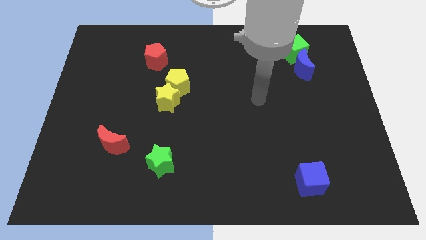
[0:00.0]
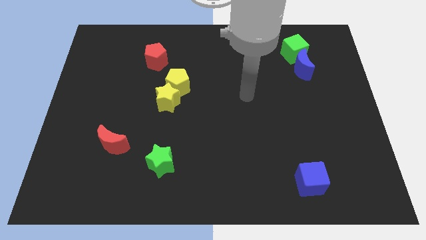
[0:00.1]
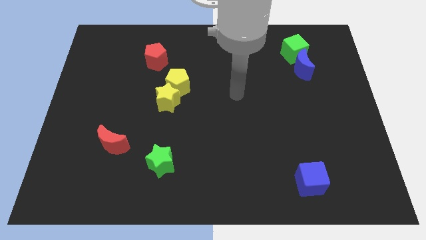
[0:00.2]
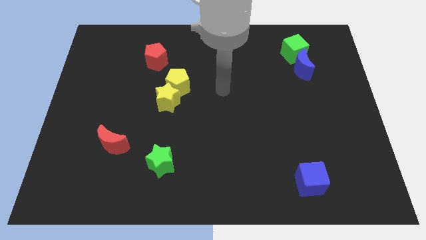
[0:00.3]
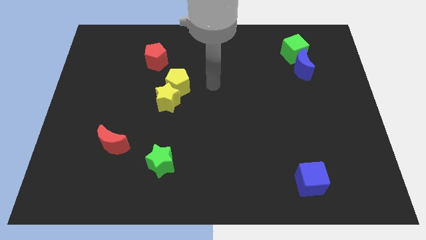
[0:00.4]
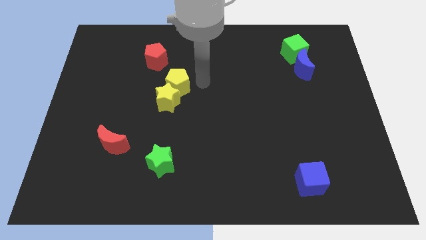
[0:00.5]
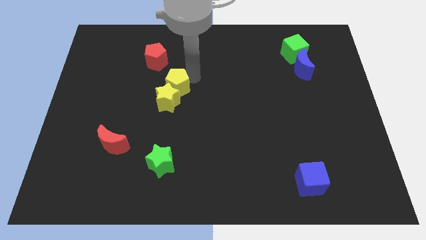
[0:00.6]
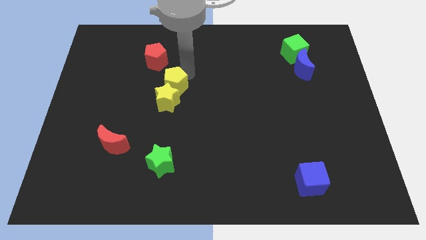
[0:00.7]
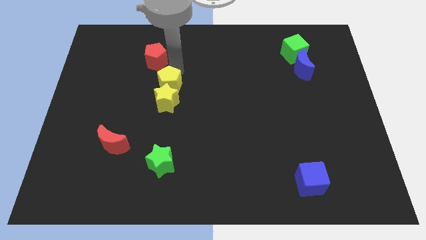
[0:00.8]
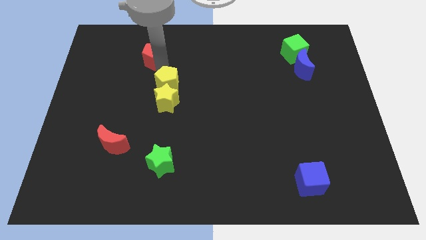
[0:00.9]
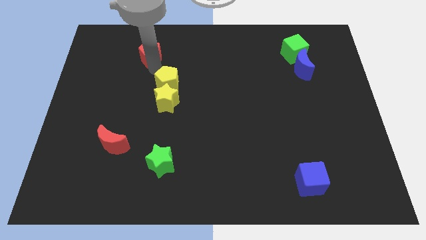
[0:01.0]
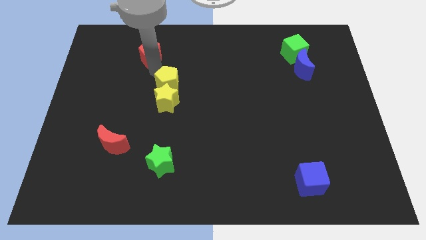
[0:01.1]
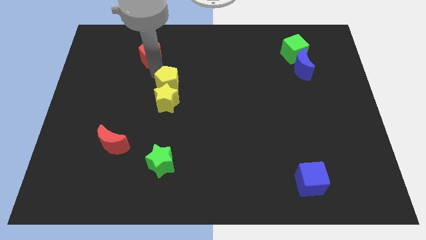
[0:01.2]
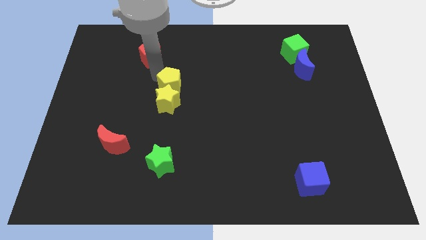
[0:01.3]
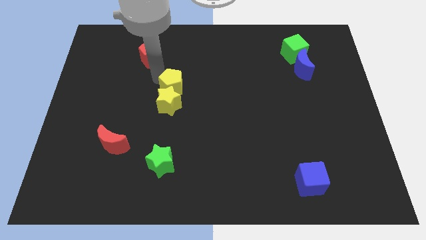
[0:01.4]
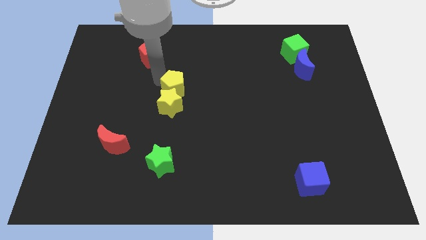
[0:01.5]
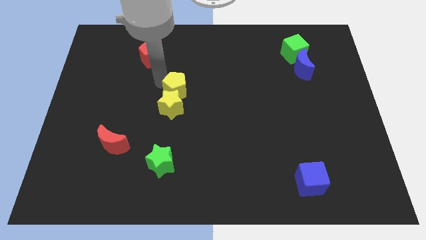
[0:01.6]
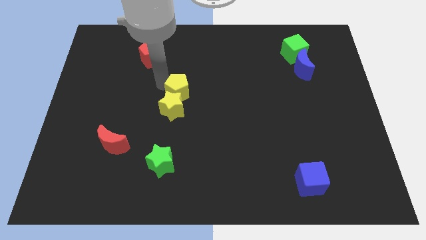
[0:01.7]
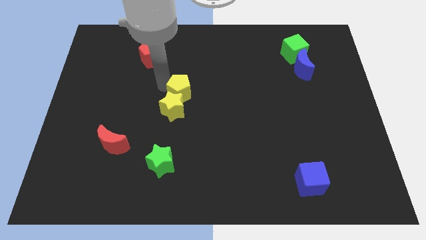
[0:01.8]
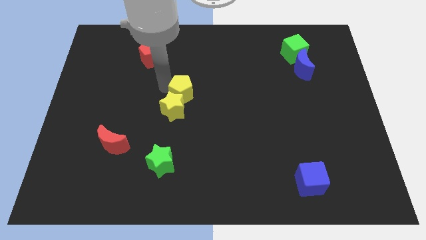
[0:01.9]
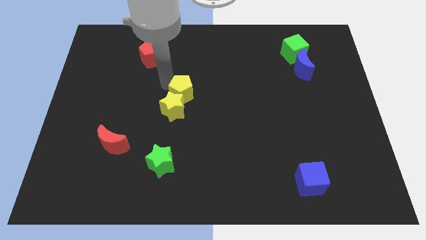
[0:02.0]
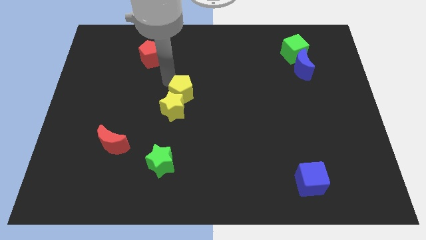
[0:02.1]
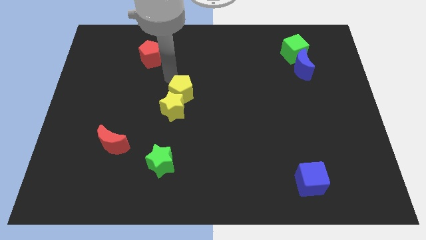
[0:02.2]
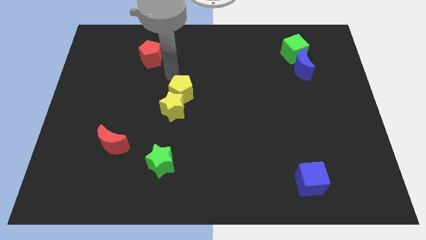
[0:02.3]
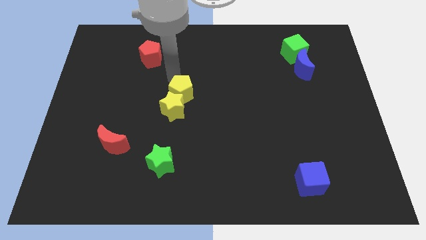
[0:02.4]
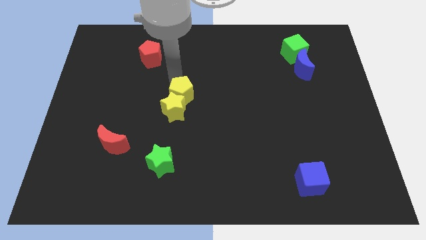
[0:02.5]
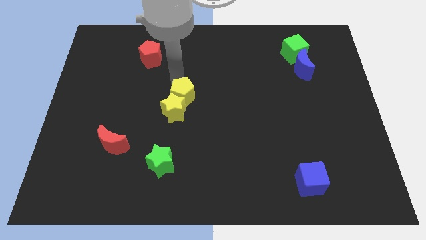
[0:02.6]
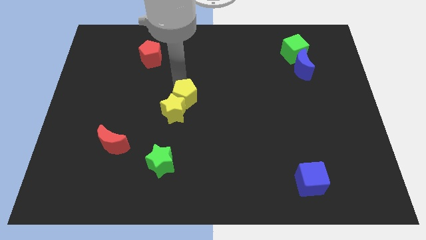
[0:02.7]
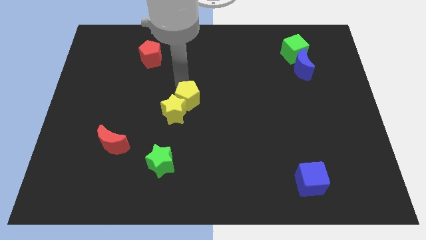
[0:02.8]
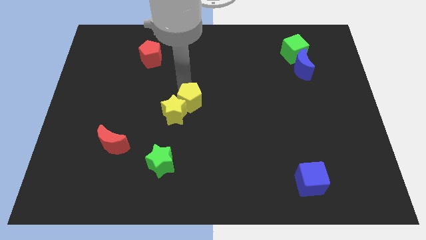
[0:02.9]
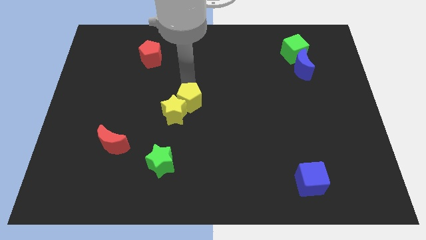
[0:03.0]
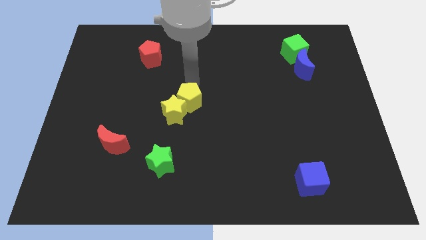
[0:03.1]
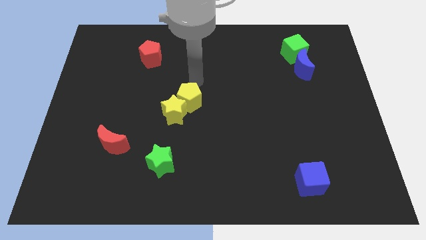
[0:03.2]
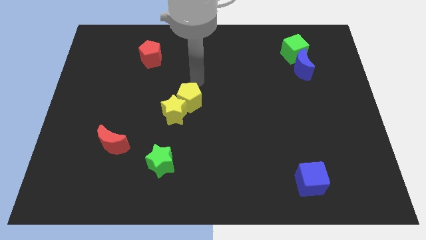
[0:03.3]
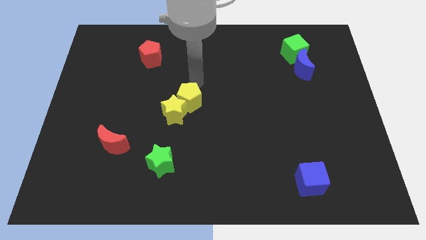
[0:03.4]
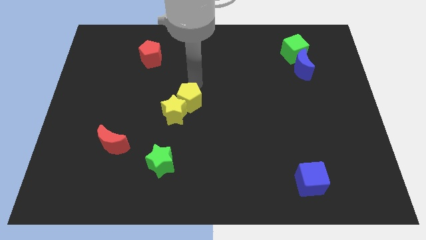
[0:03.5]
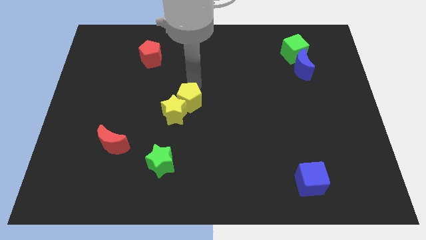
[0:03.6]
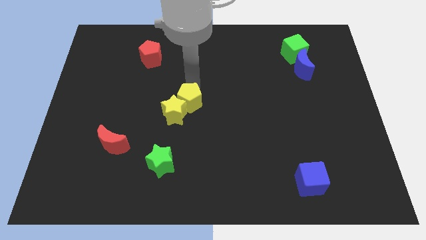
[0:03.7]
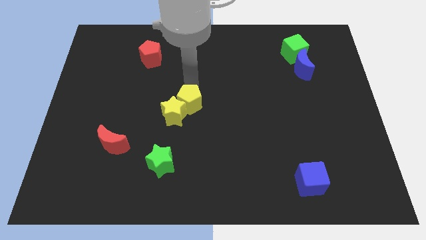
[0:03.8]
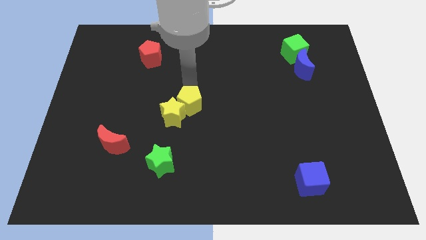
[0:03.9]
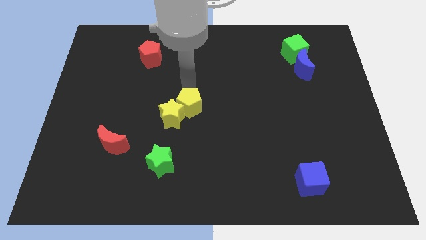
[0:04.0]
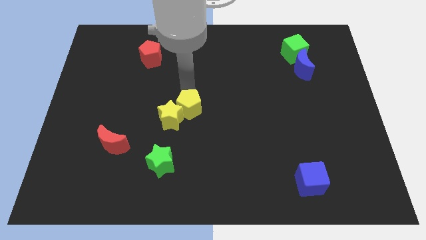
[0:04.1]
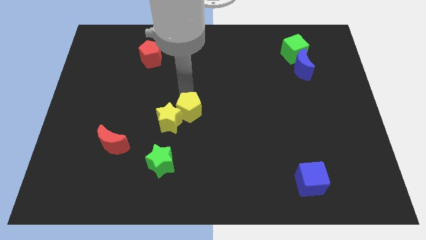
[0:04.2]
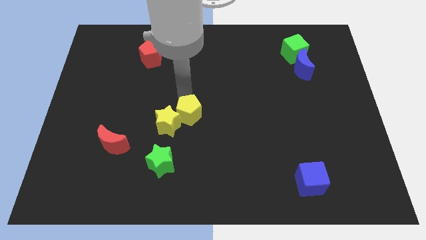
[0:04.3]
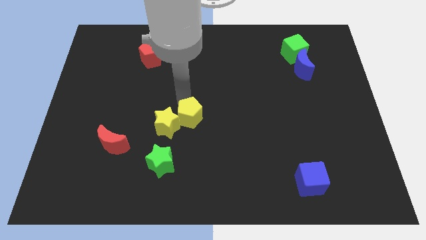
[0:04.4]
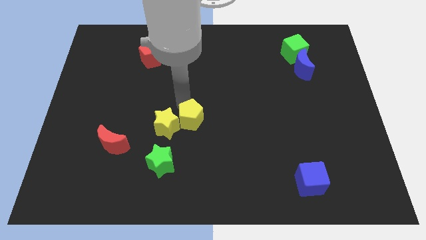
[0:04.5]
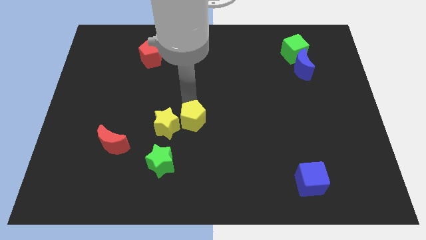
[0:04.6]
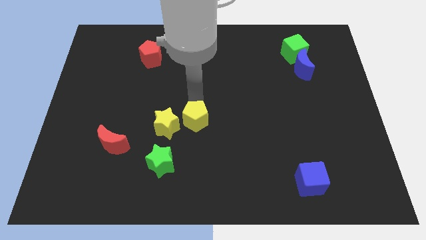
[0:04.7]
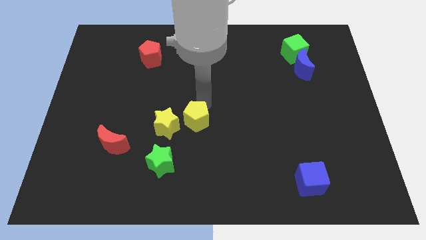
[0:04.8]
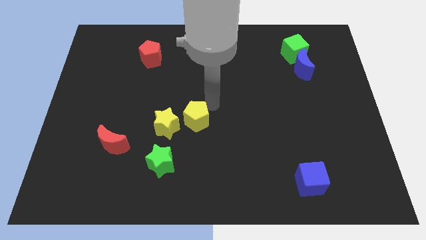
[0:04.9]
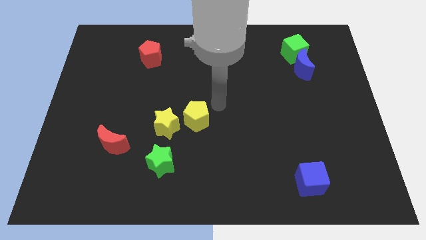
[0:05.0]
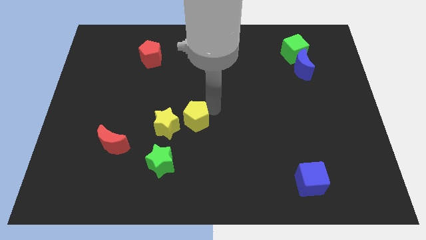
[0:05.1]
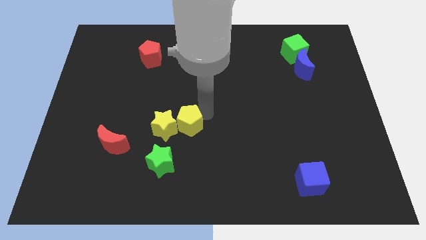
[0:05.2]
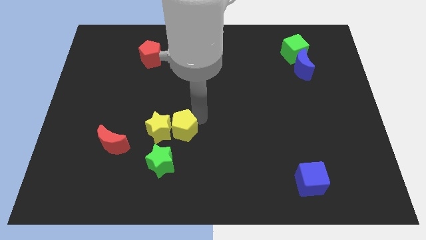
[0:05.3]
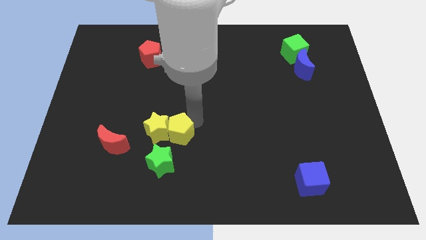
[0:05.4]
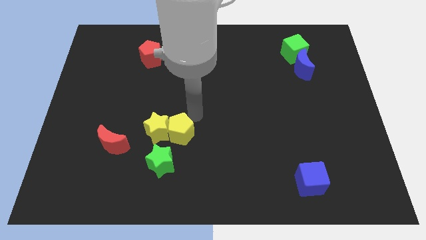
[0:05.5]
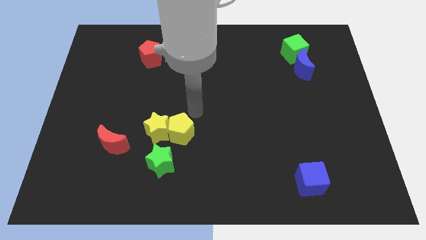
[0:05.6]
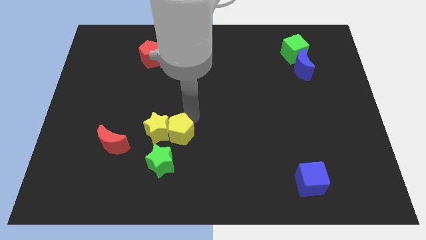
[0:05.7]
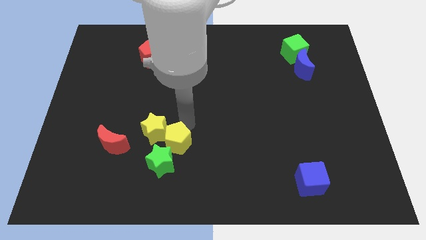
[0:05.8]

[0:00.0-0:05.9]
push the yellow pentagon next to the green star

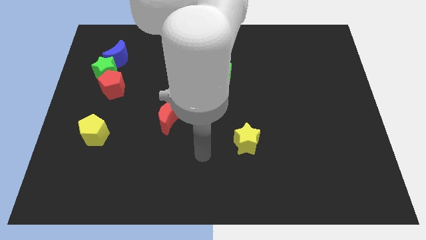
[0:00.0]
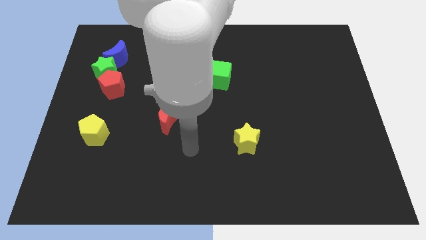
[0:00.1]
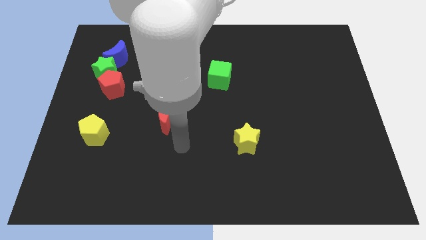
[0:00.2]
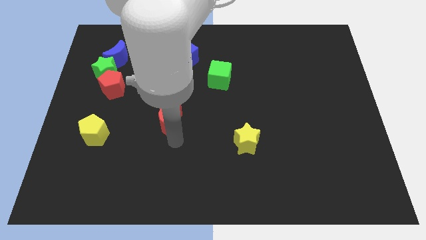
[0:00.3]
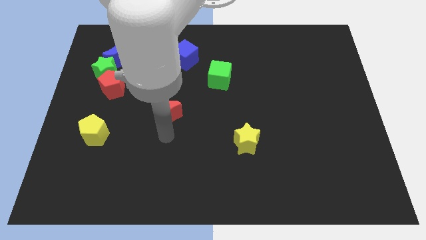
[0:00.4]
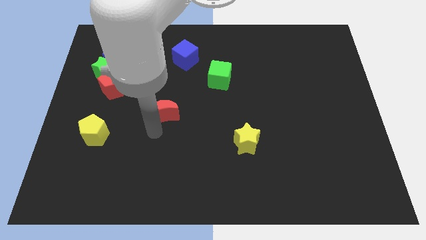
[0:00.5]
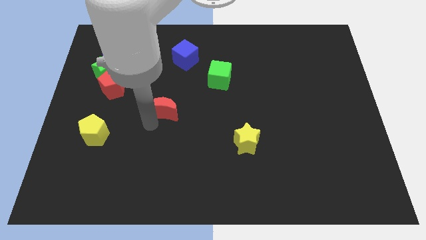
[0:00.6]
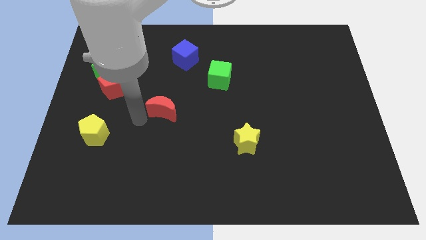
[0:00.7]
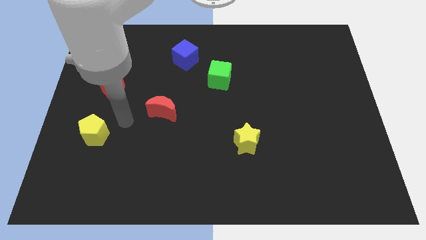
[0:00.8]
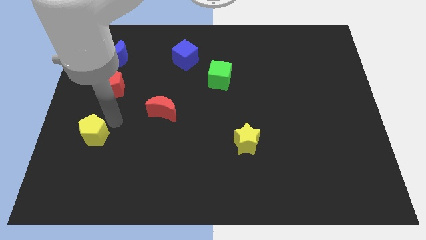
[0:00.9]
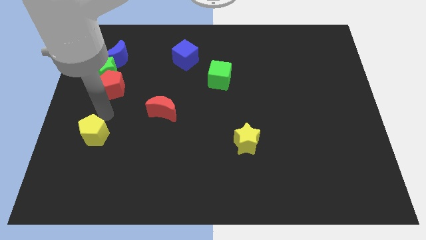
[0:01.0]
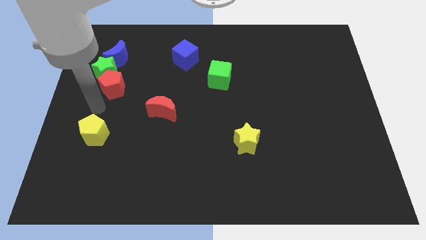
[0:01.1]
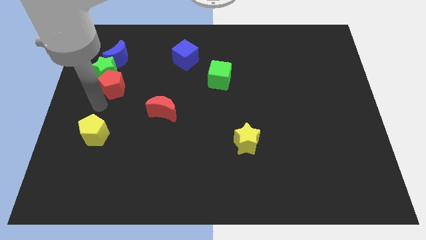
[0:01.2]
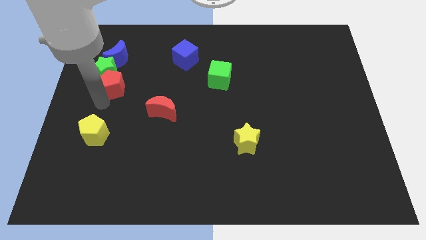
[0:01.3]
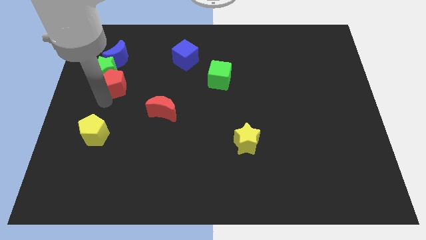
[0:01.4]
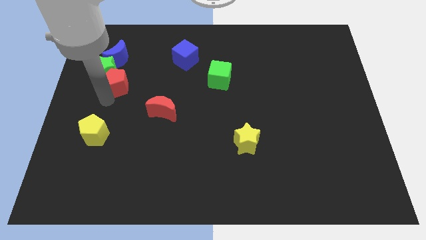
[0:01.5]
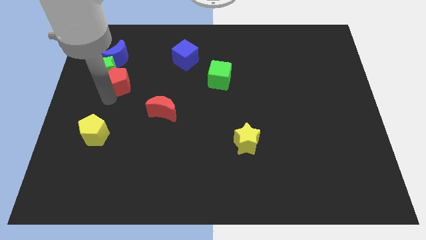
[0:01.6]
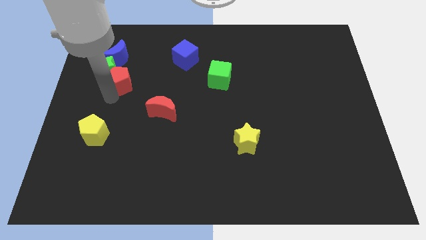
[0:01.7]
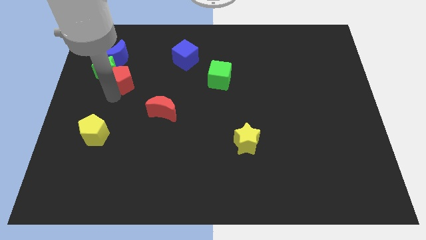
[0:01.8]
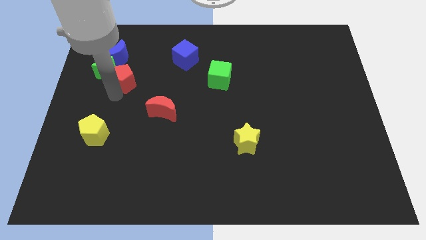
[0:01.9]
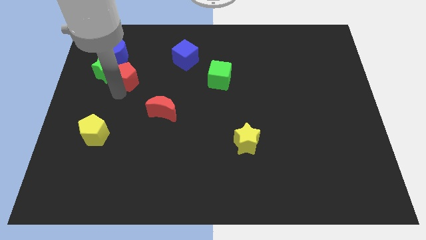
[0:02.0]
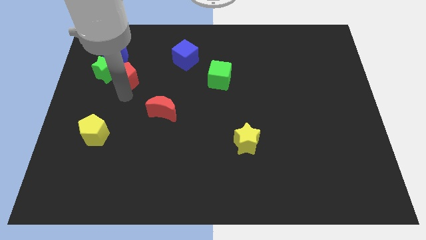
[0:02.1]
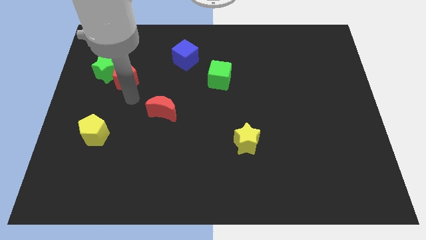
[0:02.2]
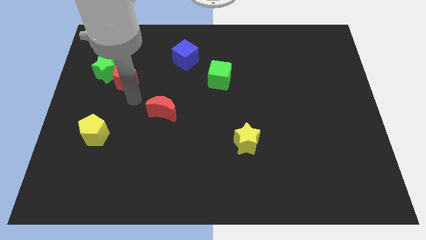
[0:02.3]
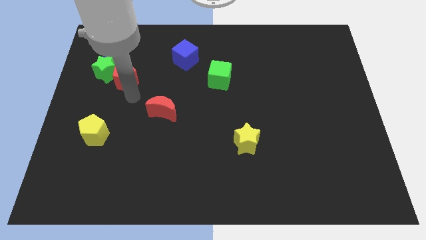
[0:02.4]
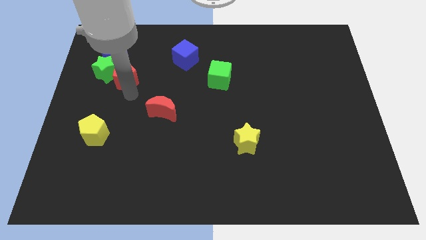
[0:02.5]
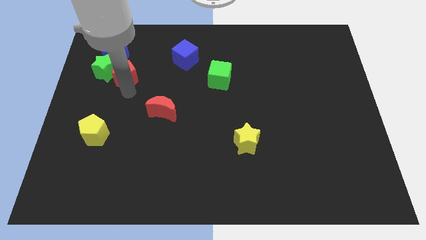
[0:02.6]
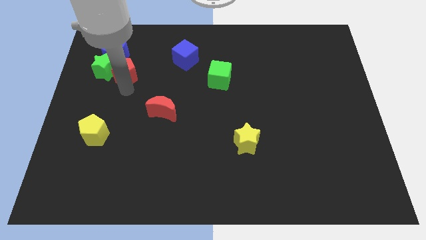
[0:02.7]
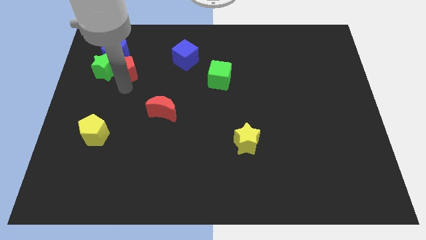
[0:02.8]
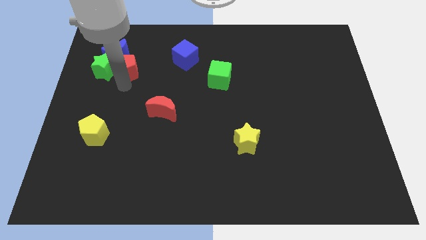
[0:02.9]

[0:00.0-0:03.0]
slide the red pentagon next to the blue moon
